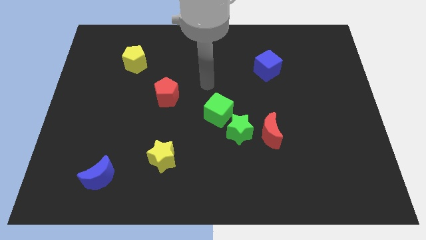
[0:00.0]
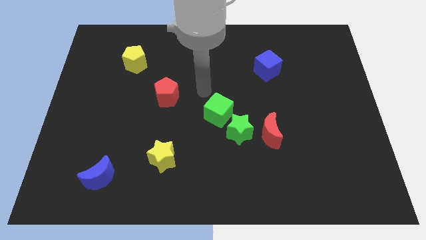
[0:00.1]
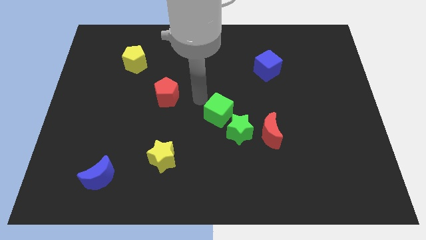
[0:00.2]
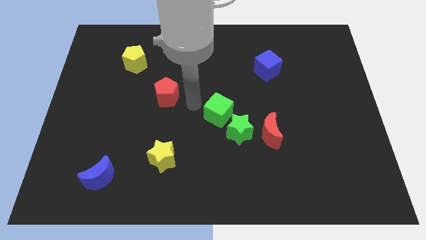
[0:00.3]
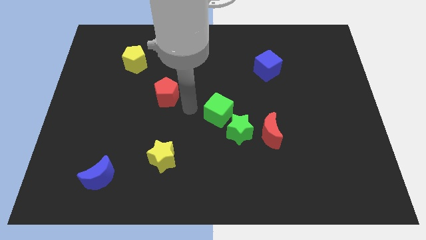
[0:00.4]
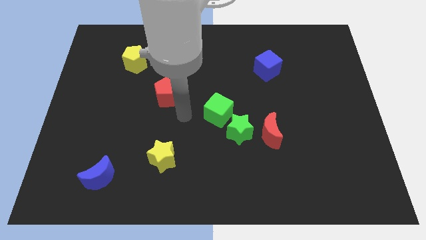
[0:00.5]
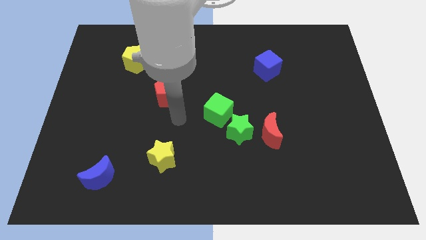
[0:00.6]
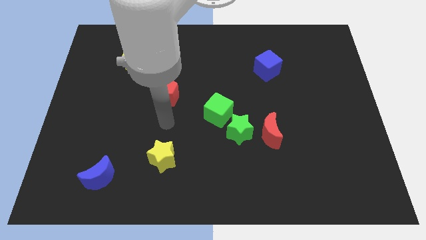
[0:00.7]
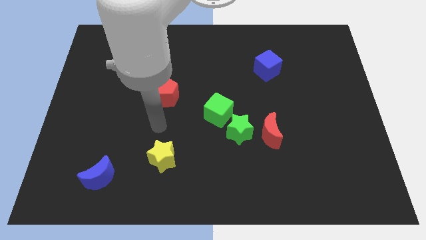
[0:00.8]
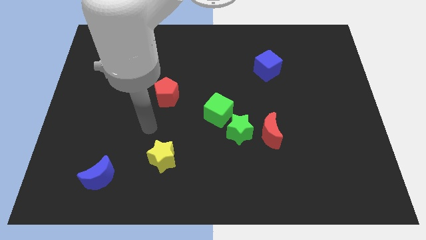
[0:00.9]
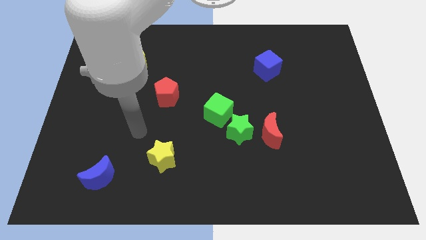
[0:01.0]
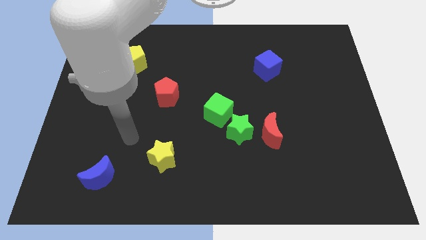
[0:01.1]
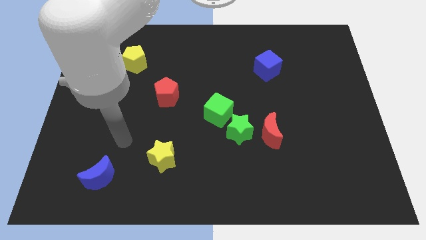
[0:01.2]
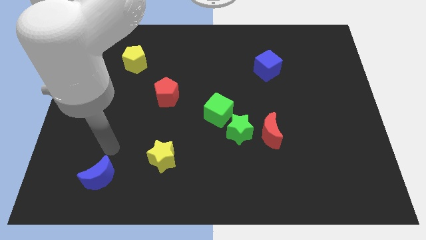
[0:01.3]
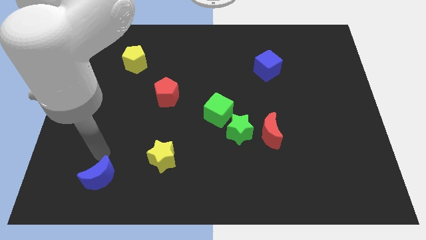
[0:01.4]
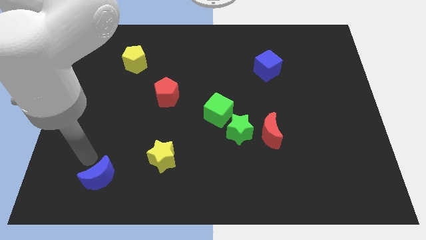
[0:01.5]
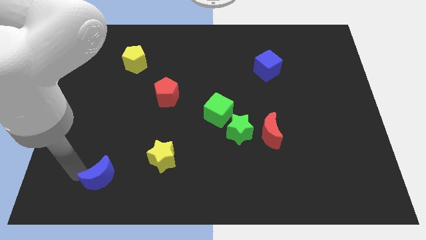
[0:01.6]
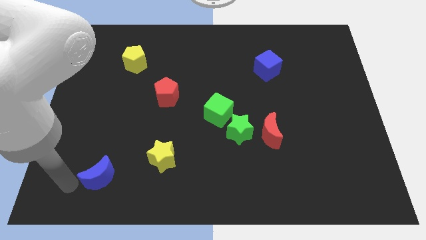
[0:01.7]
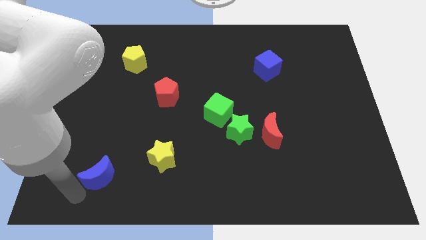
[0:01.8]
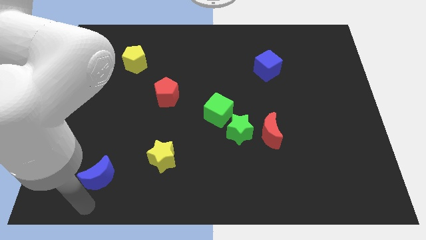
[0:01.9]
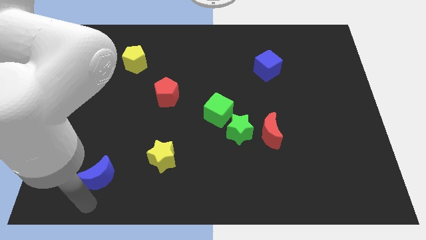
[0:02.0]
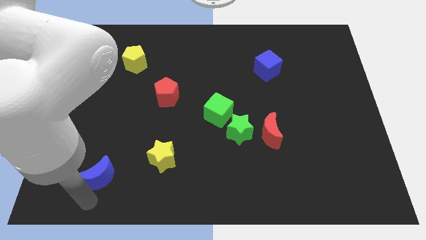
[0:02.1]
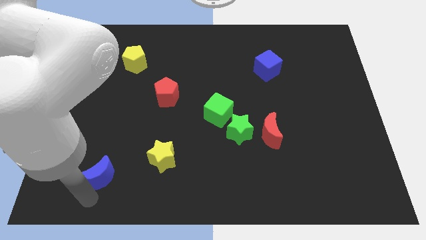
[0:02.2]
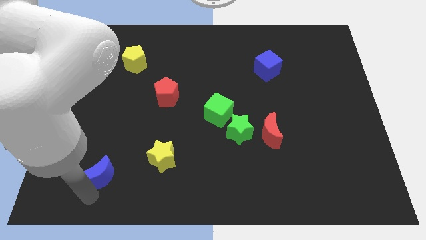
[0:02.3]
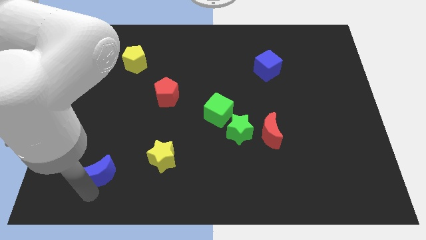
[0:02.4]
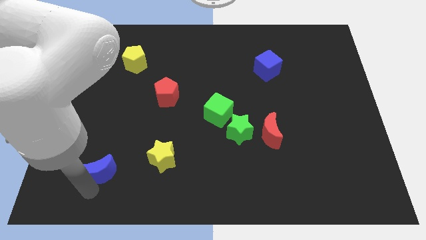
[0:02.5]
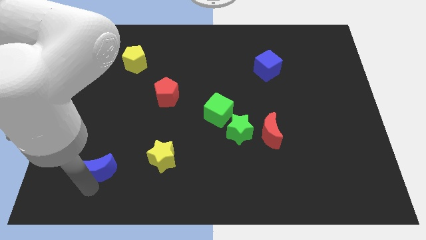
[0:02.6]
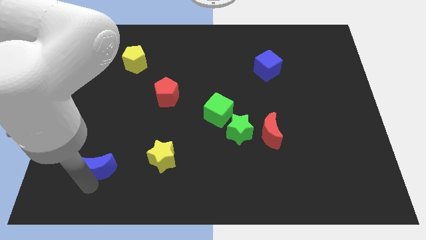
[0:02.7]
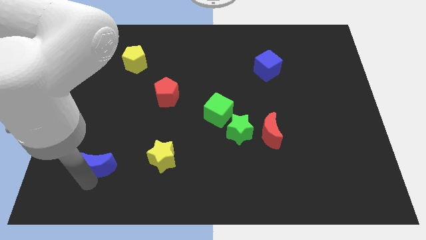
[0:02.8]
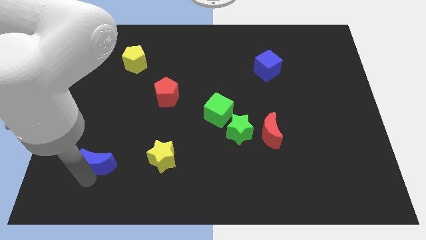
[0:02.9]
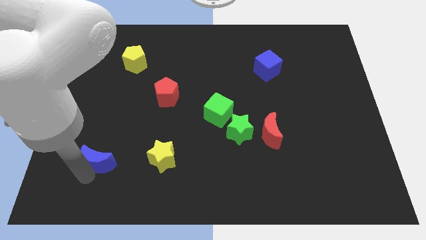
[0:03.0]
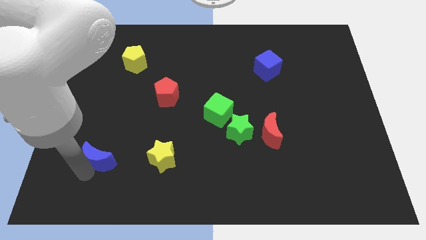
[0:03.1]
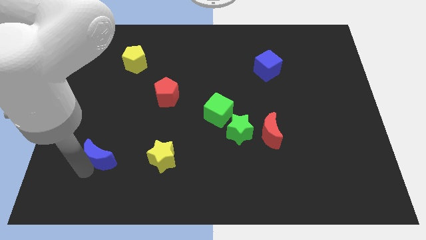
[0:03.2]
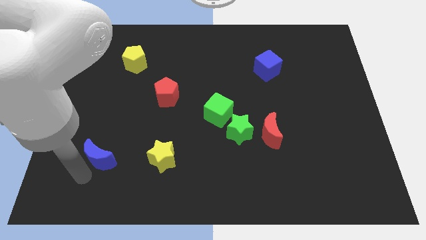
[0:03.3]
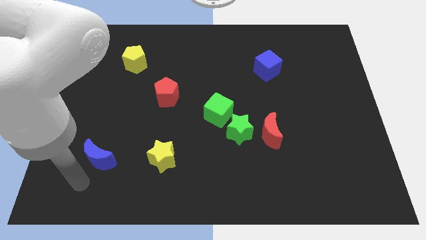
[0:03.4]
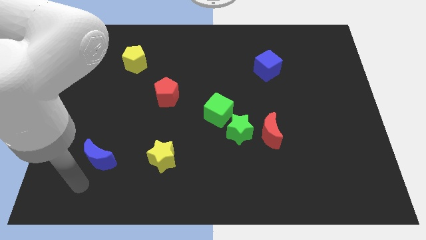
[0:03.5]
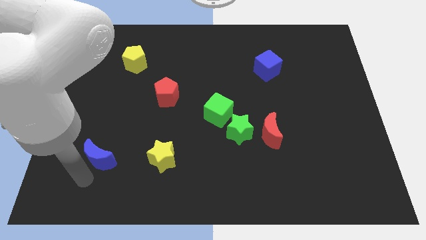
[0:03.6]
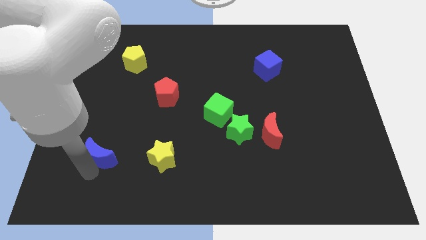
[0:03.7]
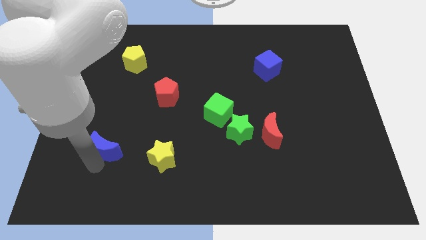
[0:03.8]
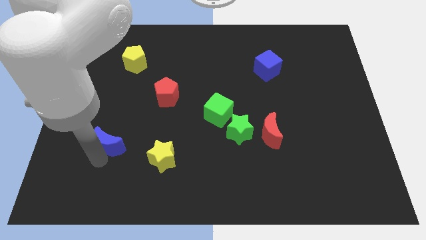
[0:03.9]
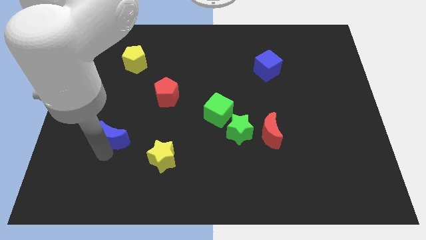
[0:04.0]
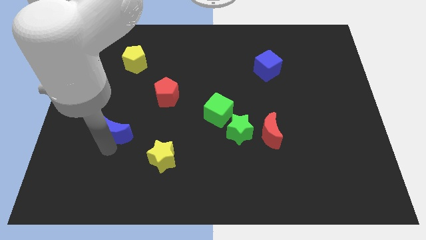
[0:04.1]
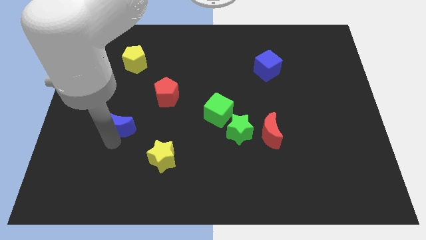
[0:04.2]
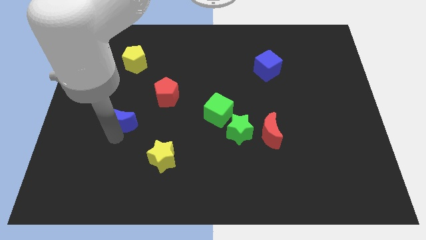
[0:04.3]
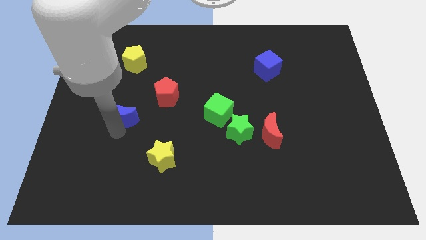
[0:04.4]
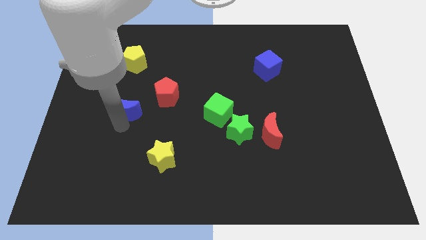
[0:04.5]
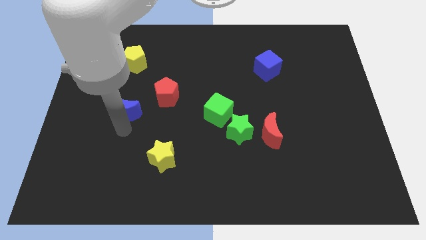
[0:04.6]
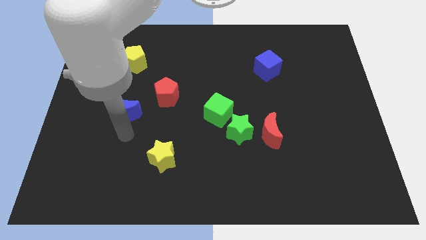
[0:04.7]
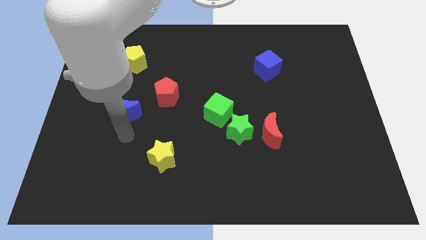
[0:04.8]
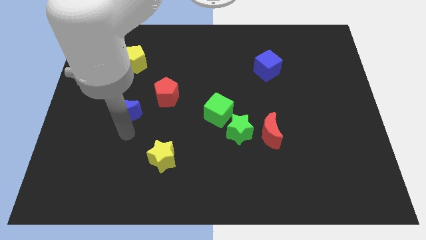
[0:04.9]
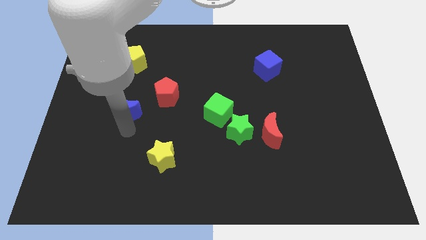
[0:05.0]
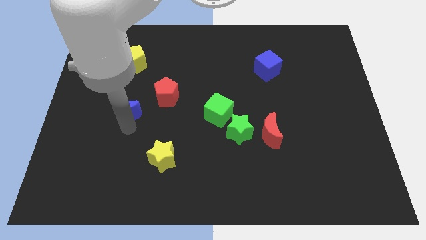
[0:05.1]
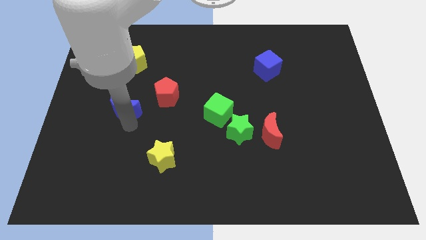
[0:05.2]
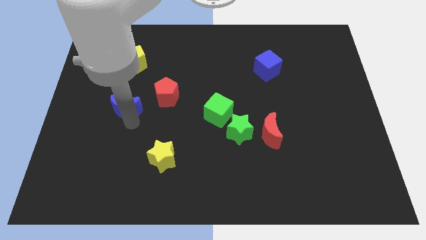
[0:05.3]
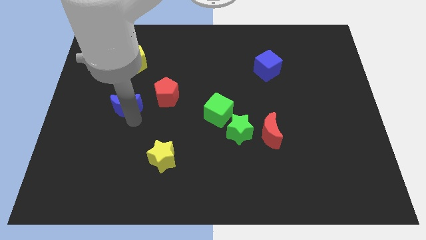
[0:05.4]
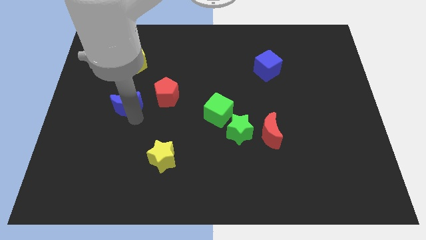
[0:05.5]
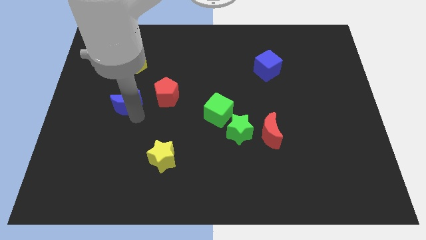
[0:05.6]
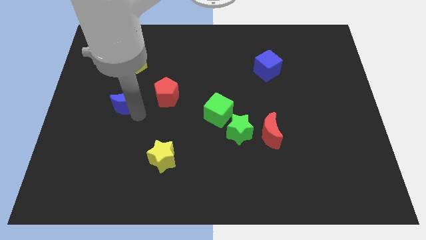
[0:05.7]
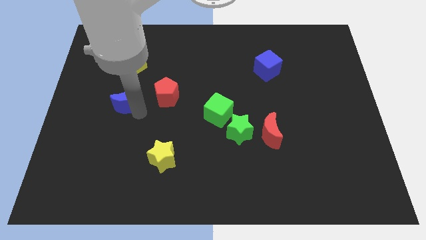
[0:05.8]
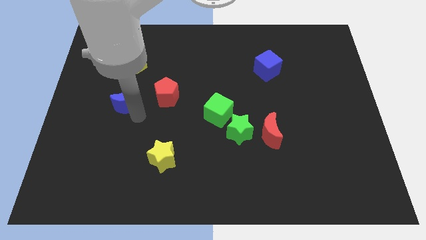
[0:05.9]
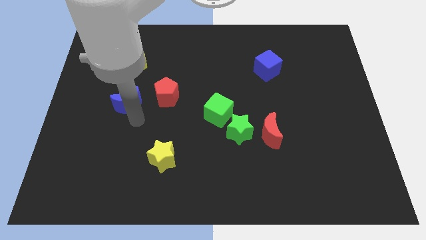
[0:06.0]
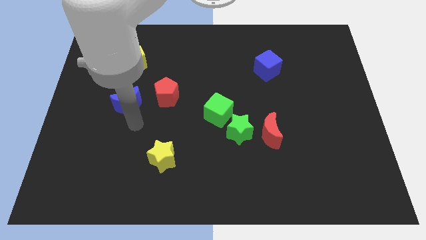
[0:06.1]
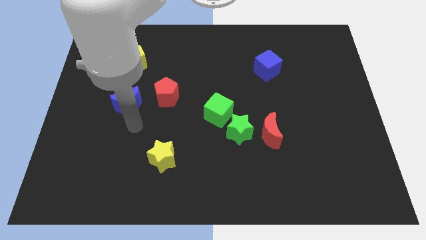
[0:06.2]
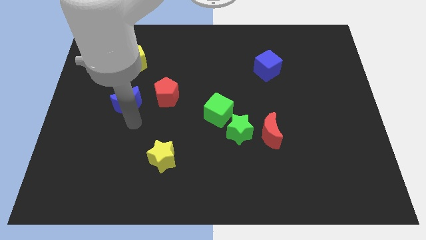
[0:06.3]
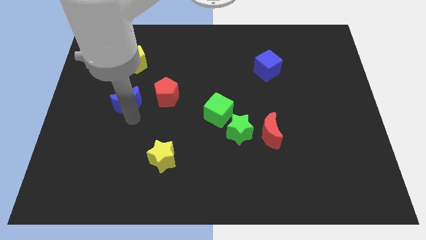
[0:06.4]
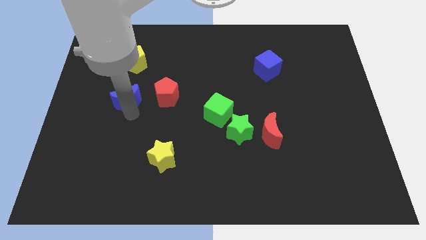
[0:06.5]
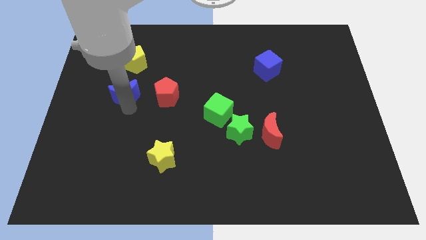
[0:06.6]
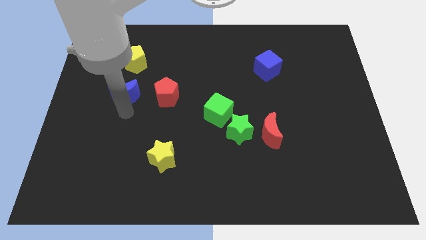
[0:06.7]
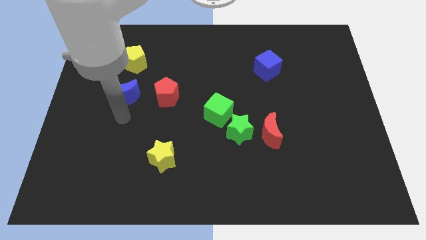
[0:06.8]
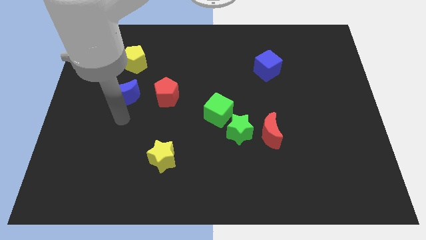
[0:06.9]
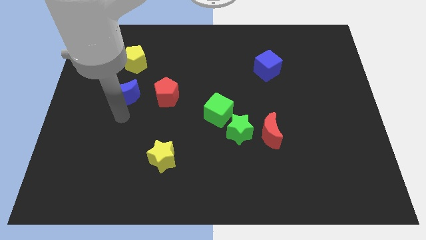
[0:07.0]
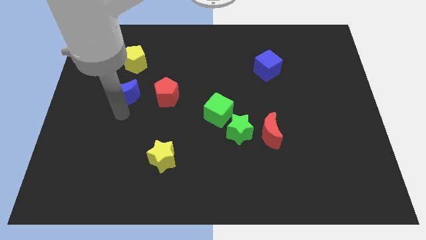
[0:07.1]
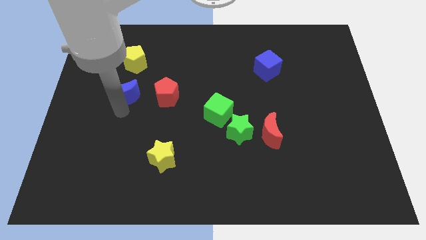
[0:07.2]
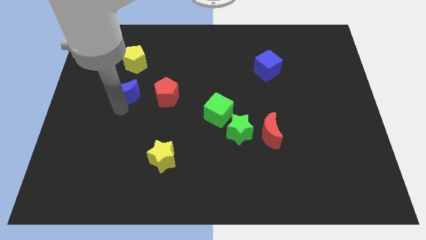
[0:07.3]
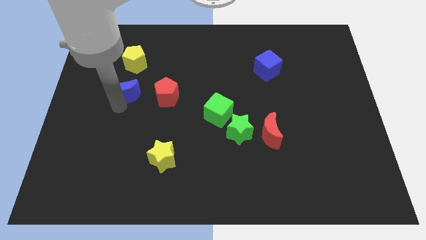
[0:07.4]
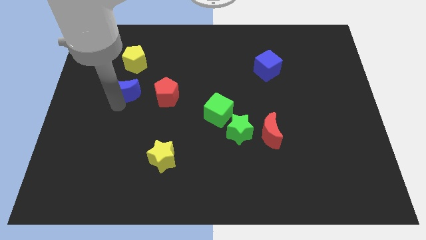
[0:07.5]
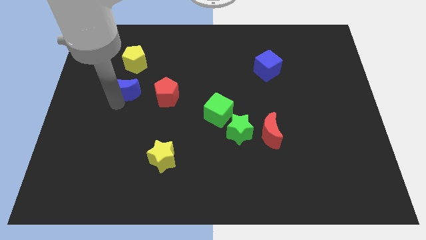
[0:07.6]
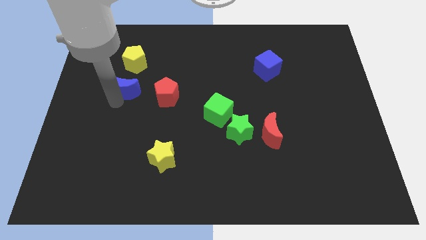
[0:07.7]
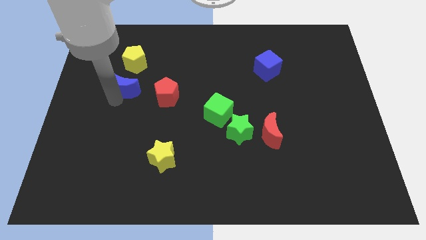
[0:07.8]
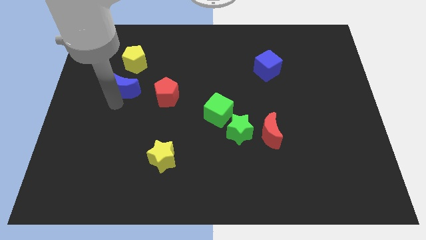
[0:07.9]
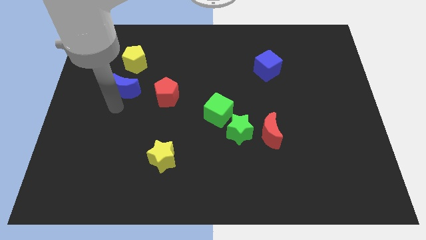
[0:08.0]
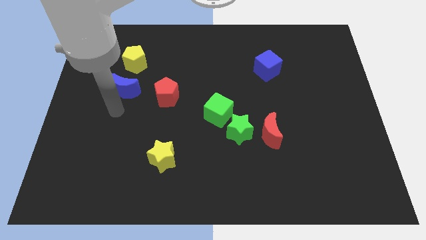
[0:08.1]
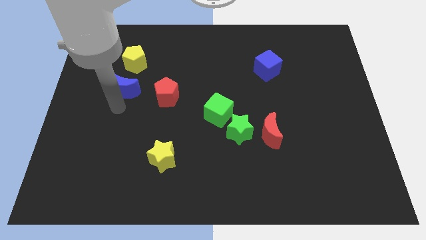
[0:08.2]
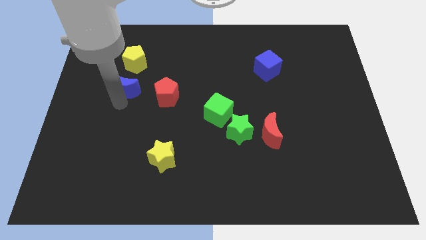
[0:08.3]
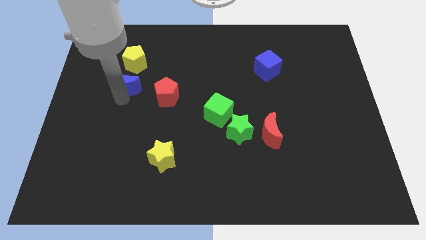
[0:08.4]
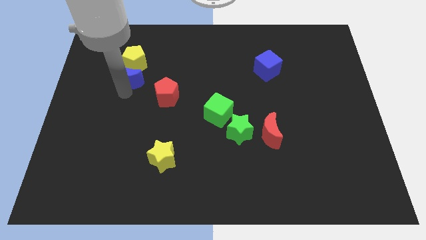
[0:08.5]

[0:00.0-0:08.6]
move the blue moon towards the yellow pentagon
